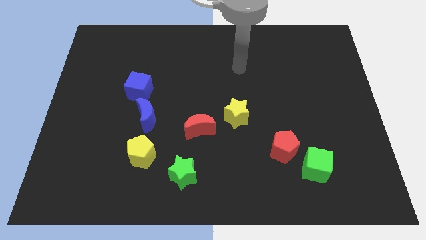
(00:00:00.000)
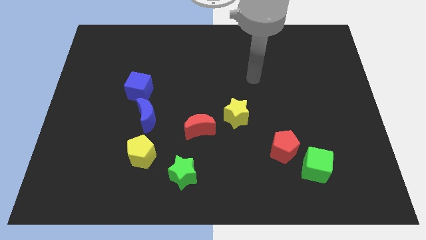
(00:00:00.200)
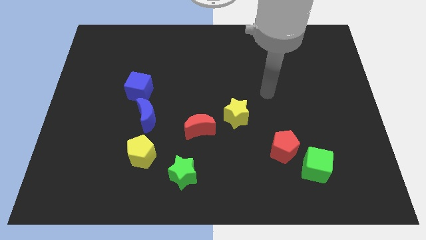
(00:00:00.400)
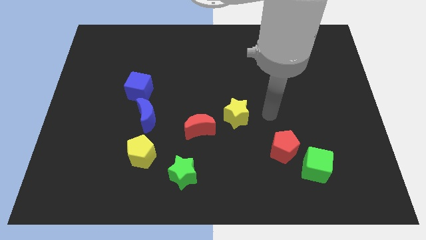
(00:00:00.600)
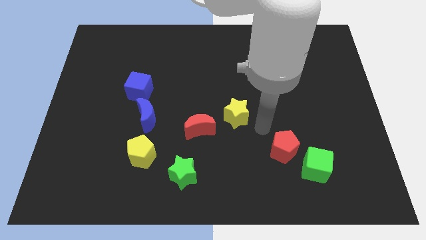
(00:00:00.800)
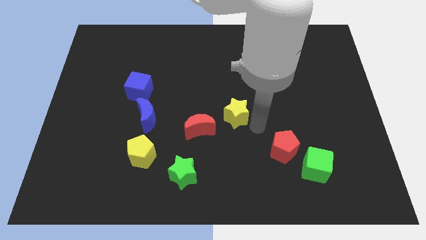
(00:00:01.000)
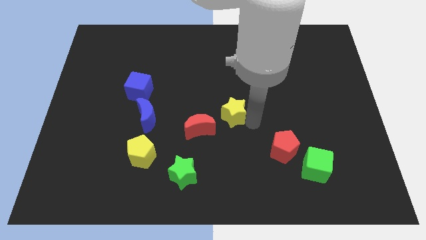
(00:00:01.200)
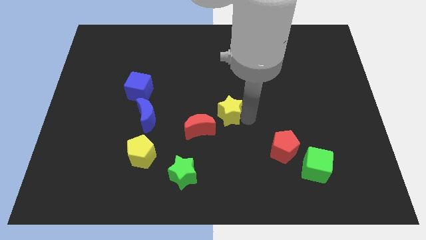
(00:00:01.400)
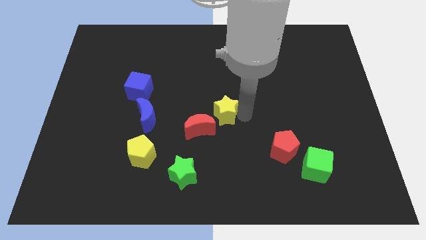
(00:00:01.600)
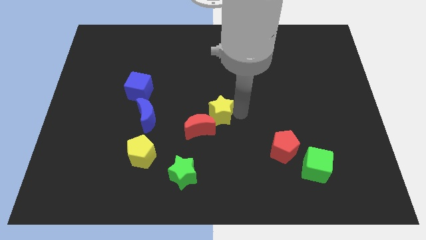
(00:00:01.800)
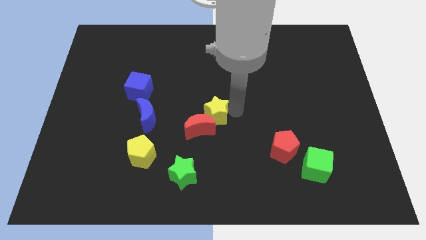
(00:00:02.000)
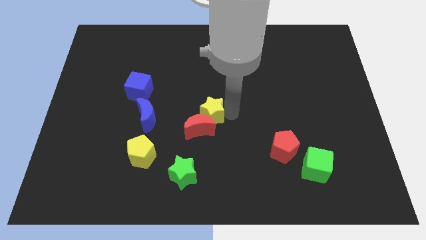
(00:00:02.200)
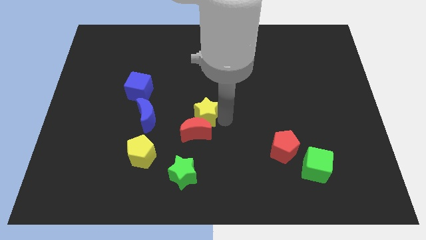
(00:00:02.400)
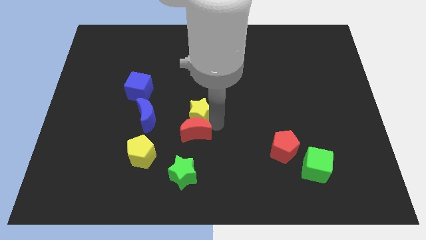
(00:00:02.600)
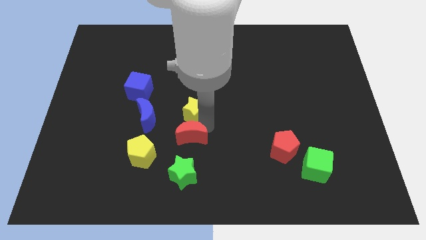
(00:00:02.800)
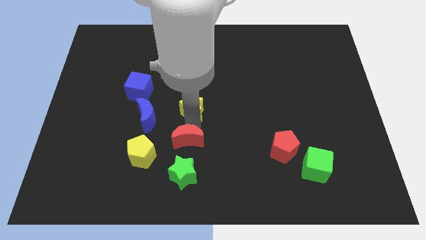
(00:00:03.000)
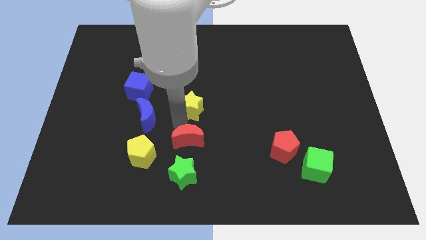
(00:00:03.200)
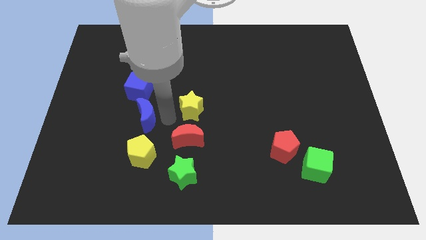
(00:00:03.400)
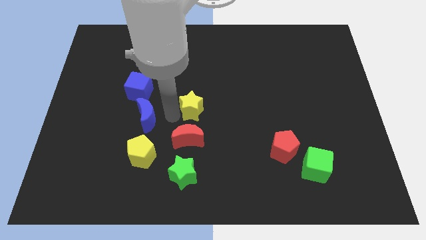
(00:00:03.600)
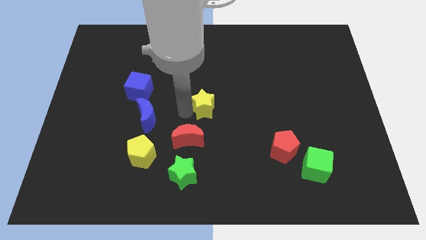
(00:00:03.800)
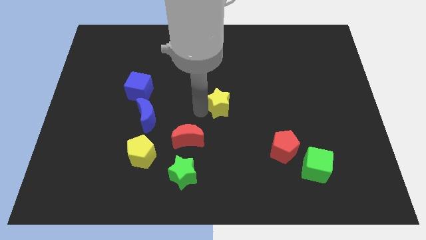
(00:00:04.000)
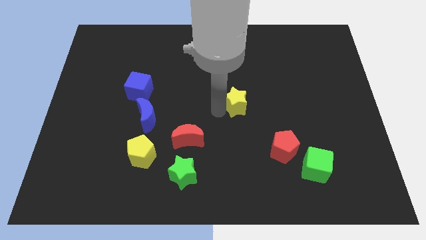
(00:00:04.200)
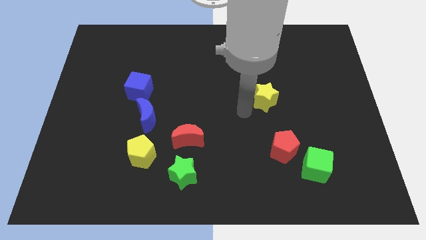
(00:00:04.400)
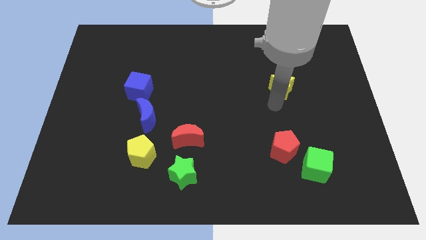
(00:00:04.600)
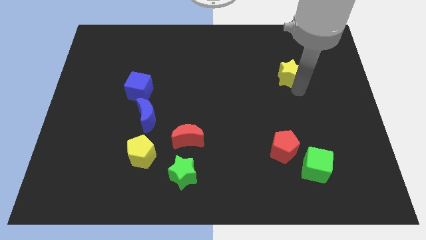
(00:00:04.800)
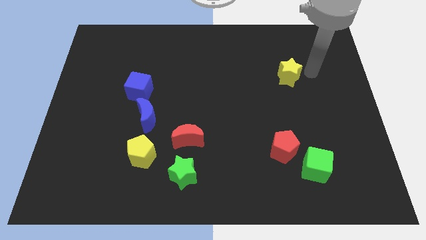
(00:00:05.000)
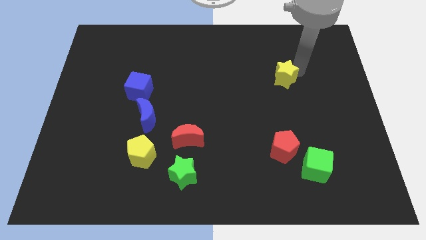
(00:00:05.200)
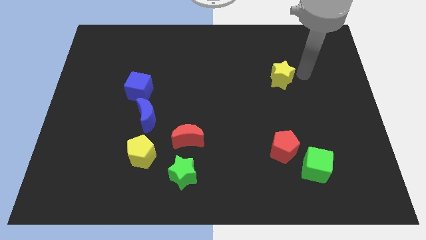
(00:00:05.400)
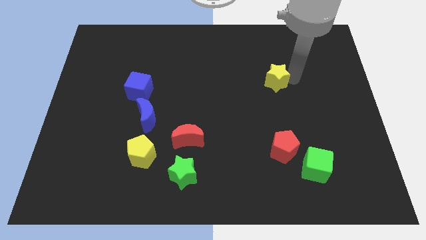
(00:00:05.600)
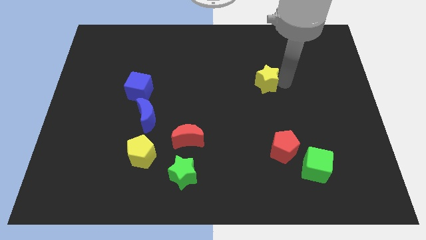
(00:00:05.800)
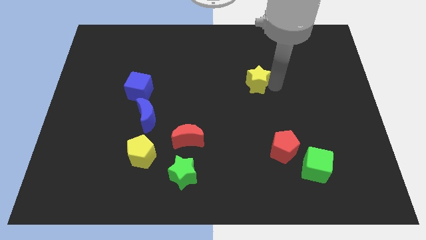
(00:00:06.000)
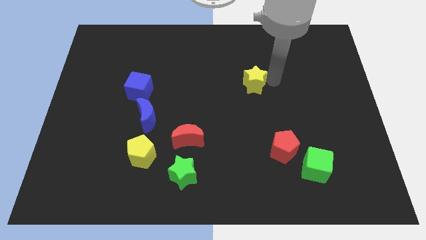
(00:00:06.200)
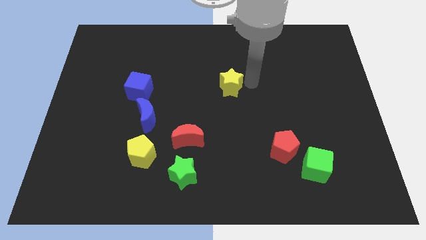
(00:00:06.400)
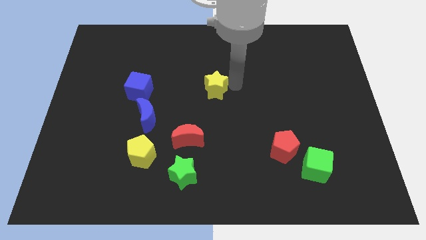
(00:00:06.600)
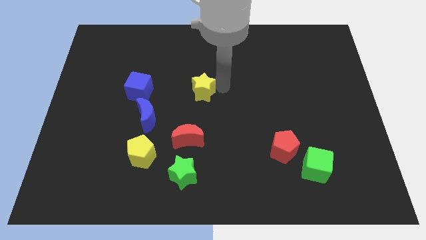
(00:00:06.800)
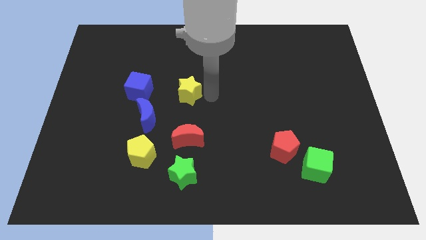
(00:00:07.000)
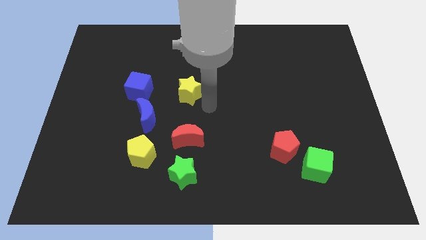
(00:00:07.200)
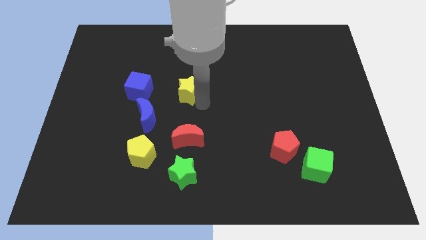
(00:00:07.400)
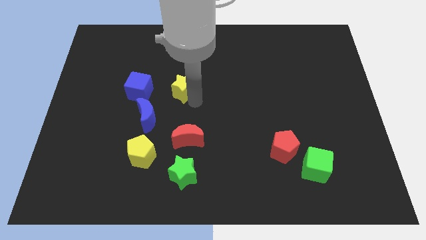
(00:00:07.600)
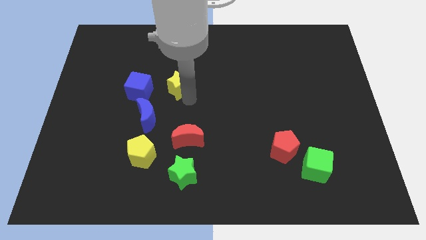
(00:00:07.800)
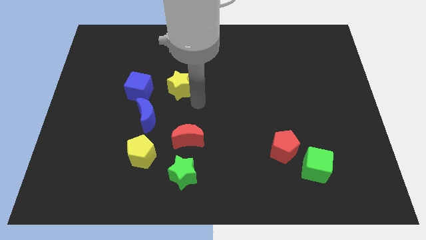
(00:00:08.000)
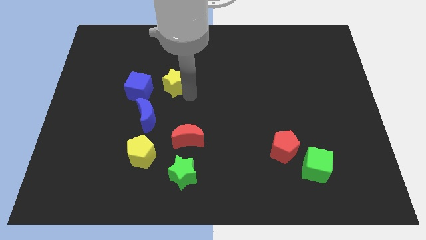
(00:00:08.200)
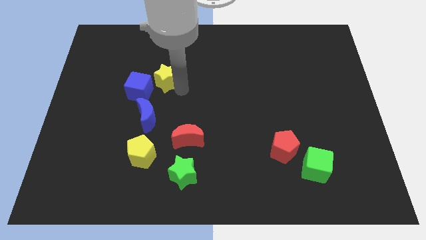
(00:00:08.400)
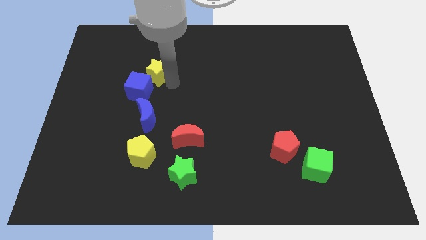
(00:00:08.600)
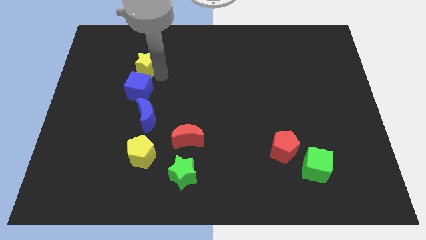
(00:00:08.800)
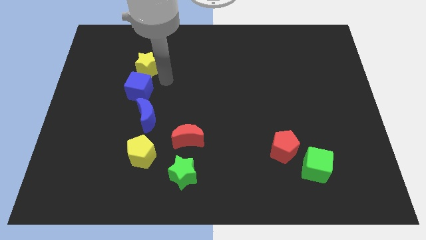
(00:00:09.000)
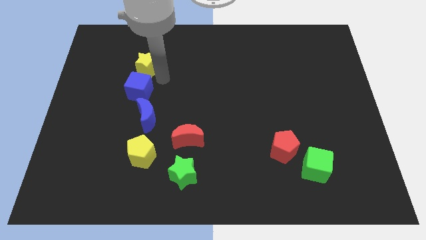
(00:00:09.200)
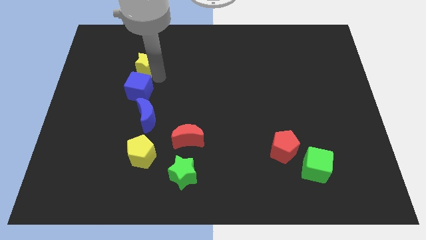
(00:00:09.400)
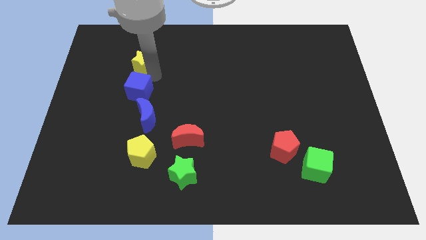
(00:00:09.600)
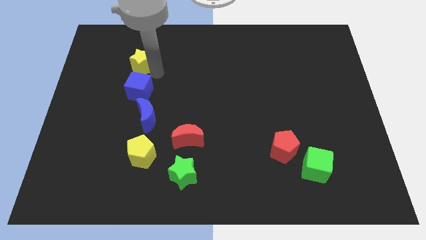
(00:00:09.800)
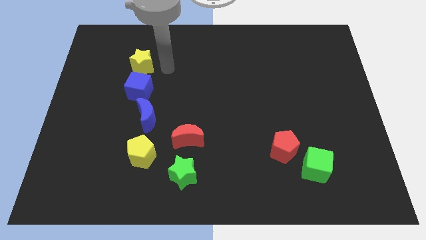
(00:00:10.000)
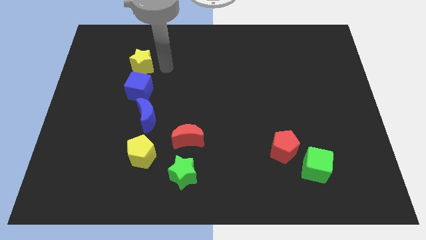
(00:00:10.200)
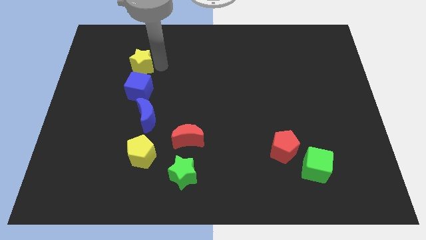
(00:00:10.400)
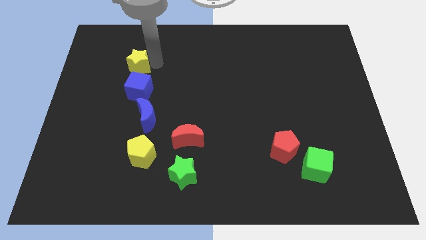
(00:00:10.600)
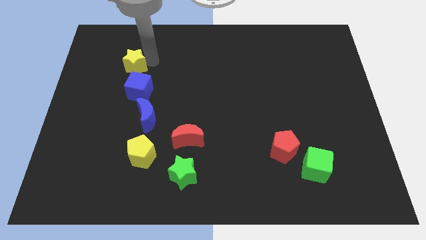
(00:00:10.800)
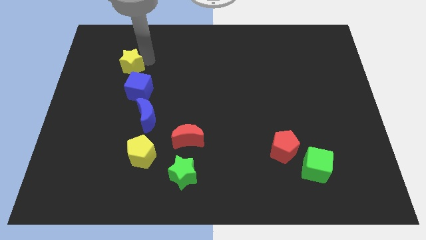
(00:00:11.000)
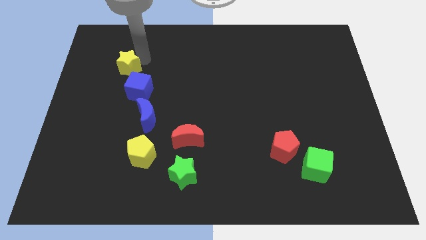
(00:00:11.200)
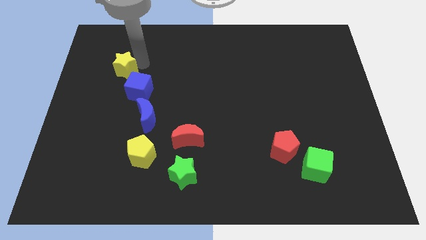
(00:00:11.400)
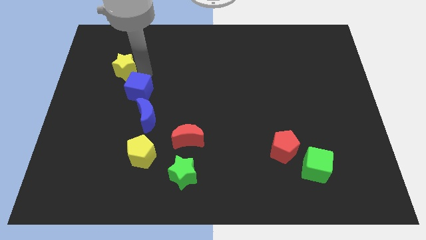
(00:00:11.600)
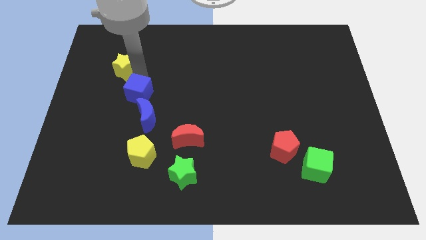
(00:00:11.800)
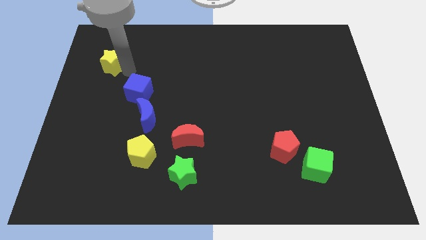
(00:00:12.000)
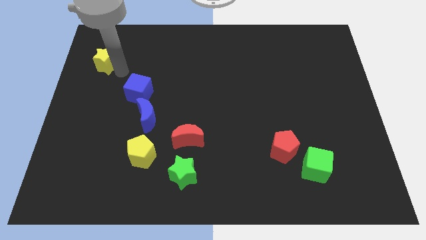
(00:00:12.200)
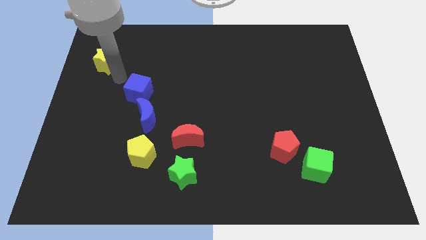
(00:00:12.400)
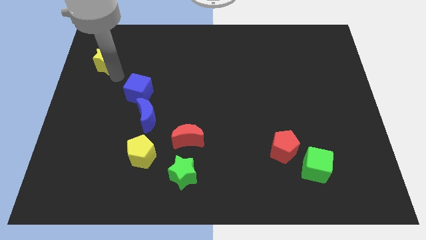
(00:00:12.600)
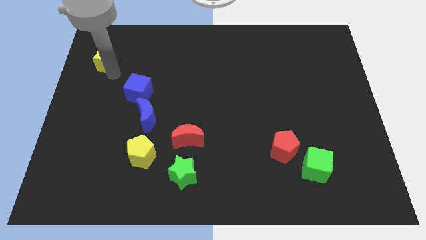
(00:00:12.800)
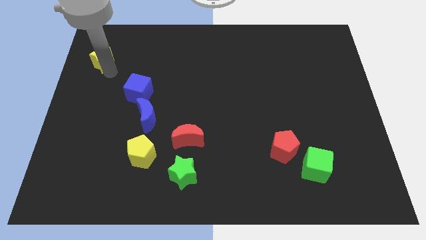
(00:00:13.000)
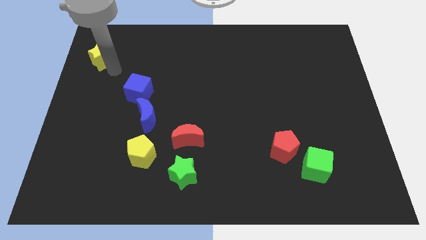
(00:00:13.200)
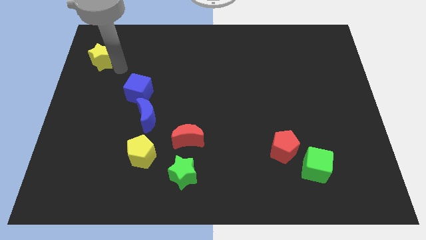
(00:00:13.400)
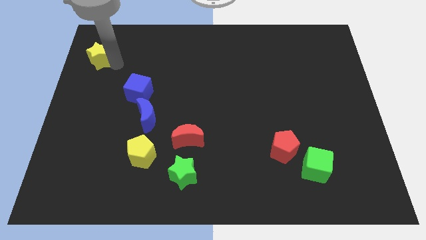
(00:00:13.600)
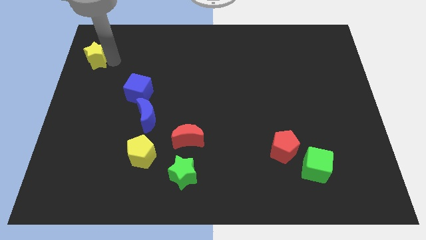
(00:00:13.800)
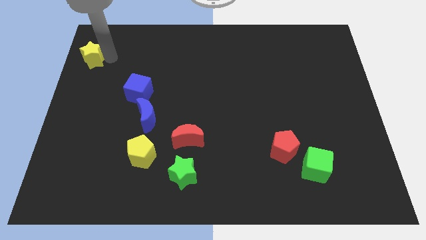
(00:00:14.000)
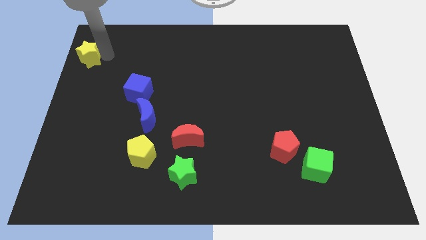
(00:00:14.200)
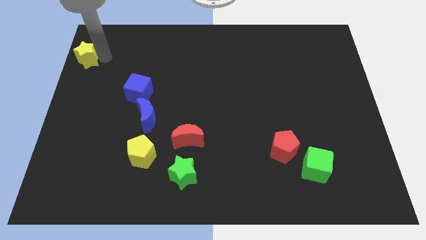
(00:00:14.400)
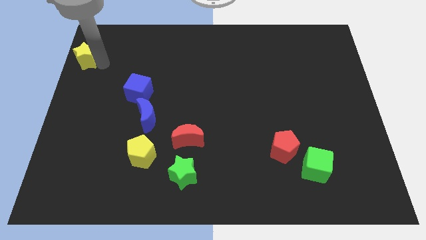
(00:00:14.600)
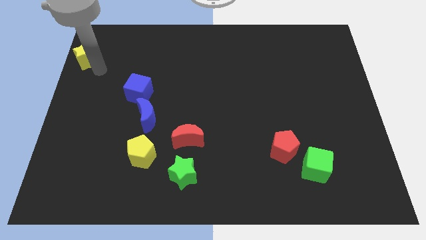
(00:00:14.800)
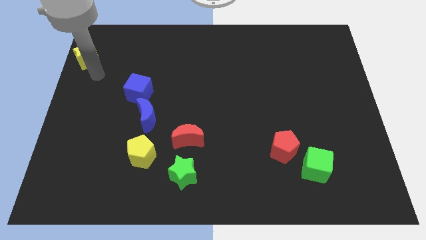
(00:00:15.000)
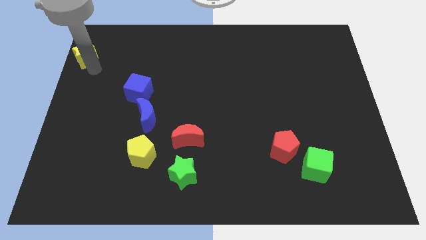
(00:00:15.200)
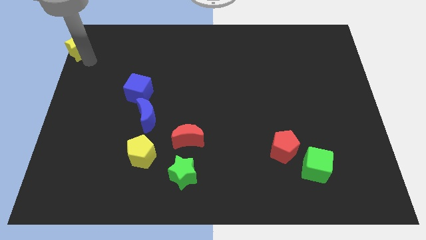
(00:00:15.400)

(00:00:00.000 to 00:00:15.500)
push the yellow star to the top left corner
